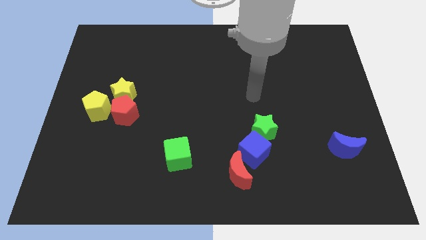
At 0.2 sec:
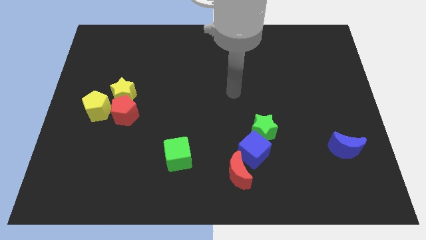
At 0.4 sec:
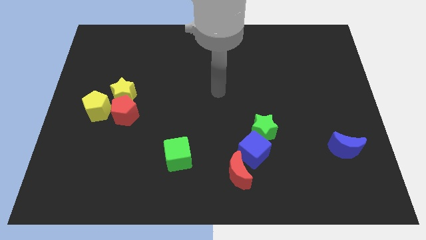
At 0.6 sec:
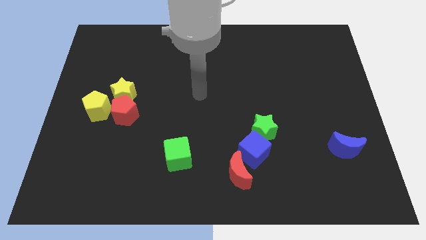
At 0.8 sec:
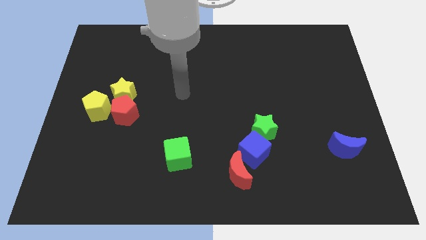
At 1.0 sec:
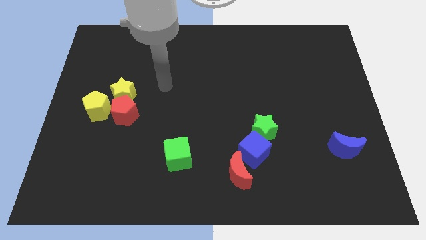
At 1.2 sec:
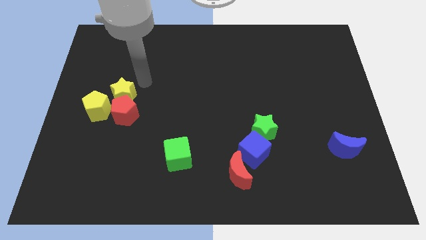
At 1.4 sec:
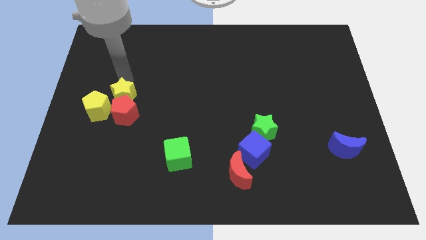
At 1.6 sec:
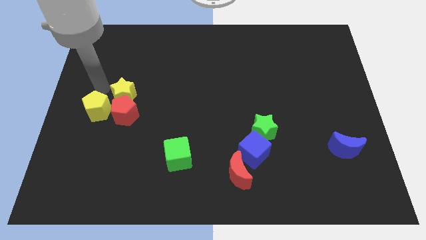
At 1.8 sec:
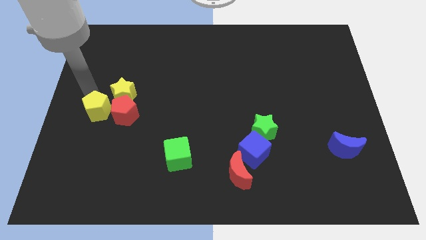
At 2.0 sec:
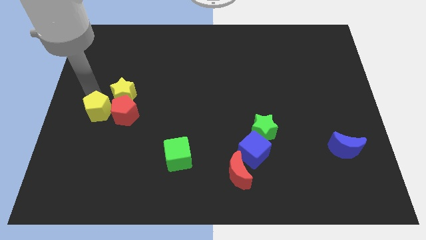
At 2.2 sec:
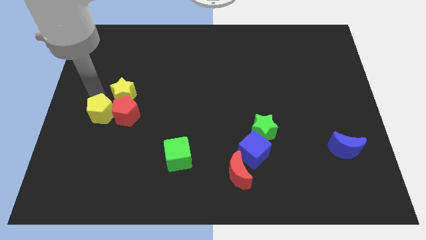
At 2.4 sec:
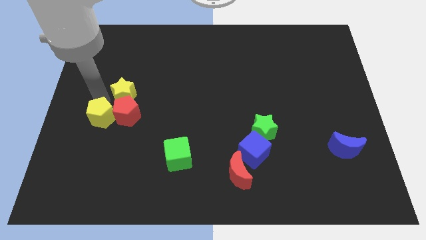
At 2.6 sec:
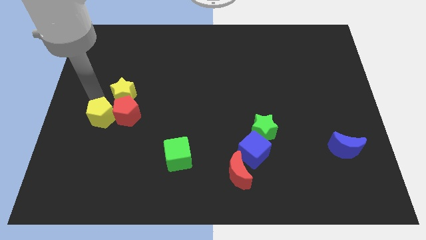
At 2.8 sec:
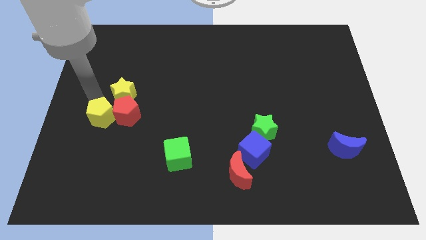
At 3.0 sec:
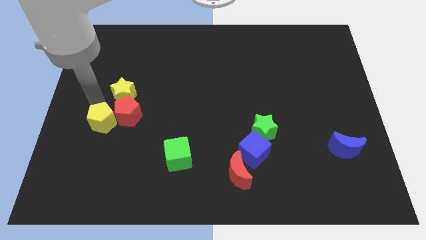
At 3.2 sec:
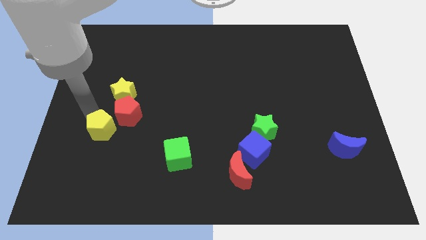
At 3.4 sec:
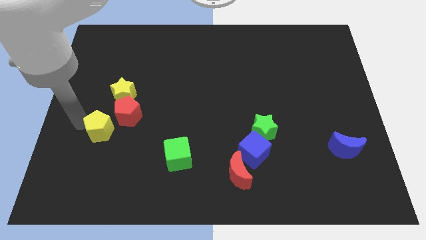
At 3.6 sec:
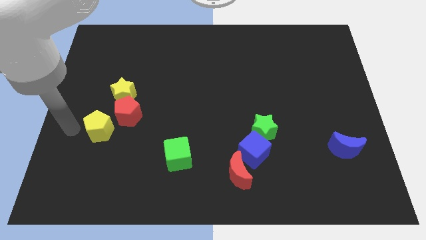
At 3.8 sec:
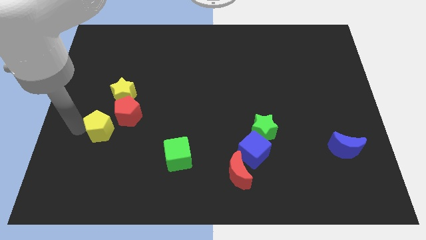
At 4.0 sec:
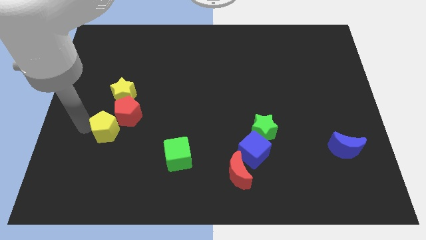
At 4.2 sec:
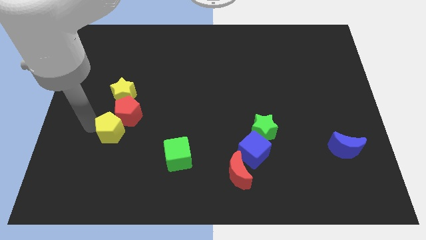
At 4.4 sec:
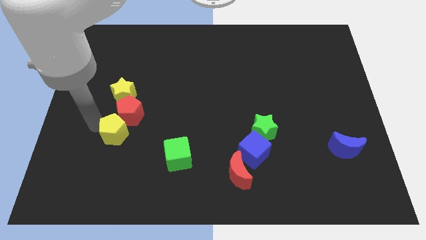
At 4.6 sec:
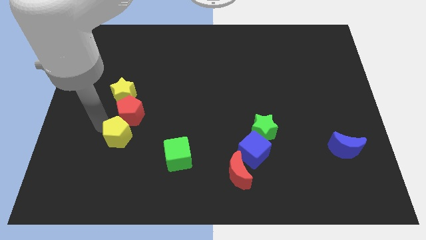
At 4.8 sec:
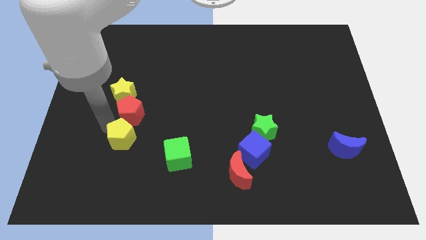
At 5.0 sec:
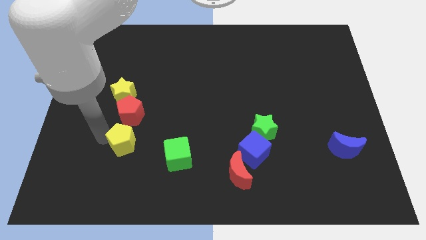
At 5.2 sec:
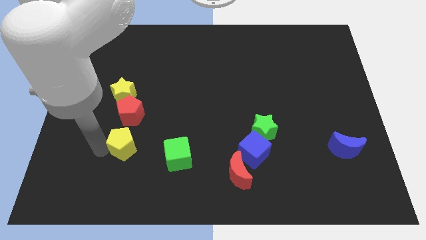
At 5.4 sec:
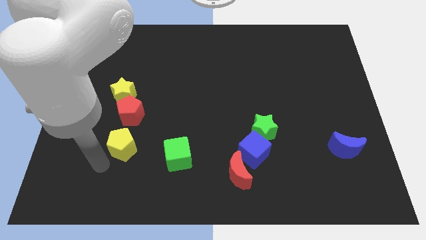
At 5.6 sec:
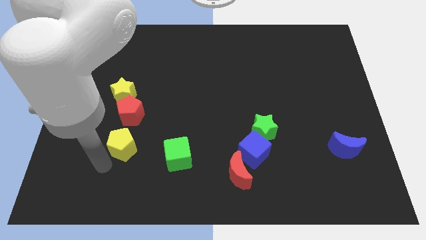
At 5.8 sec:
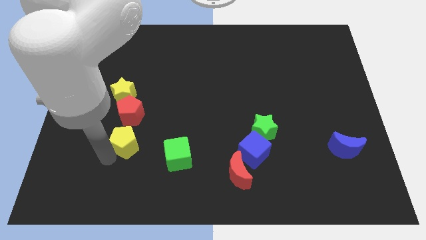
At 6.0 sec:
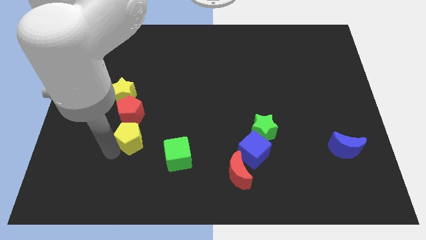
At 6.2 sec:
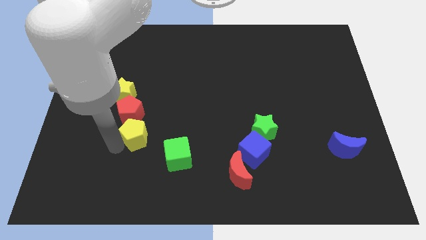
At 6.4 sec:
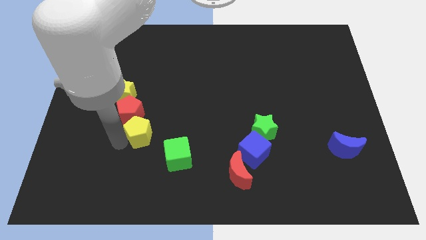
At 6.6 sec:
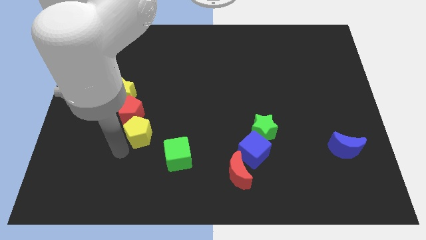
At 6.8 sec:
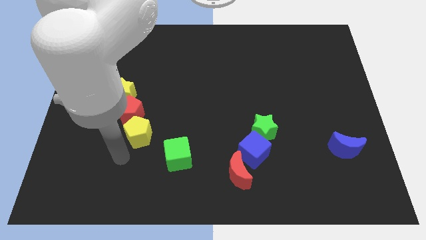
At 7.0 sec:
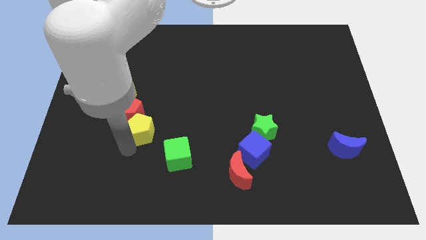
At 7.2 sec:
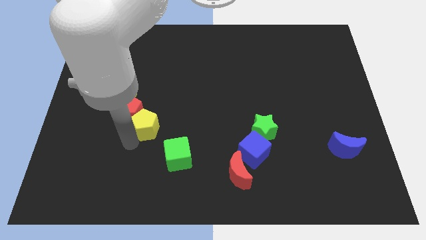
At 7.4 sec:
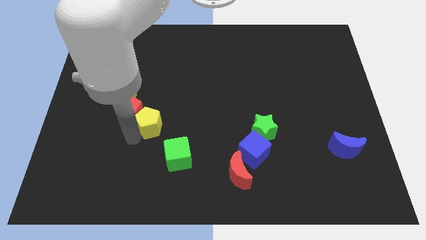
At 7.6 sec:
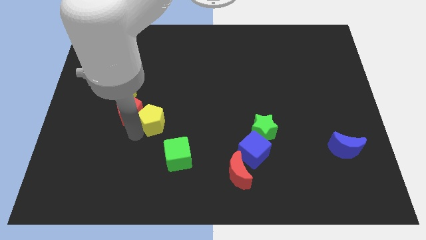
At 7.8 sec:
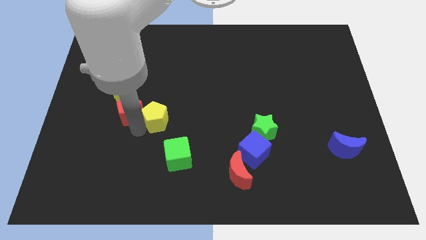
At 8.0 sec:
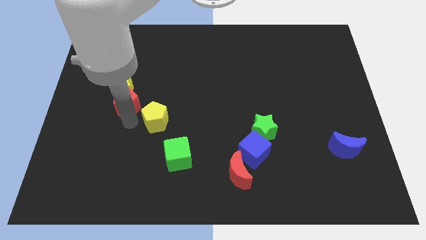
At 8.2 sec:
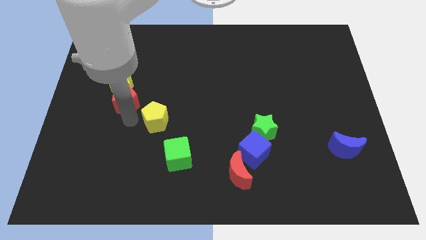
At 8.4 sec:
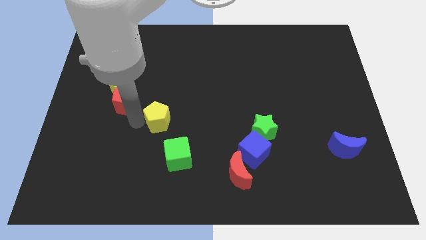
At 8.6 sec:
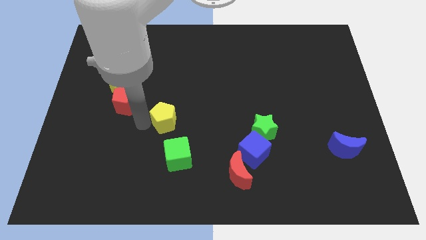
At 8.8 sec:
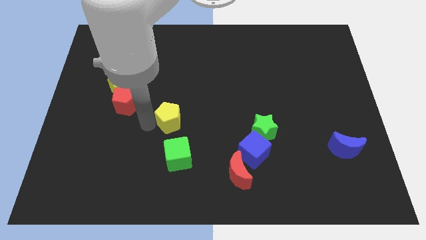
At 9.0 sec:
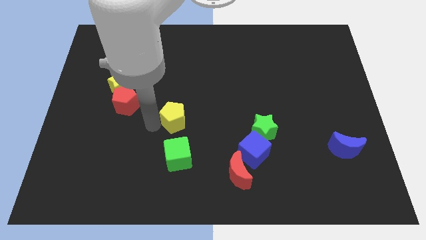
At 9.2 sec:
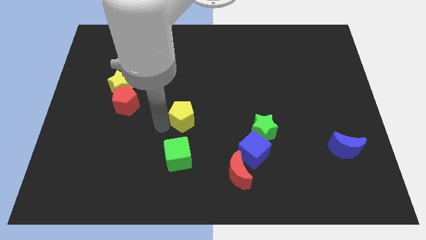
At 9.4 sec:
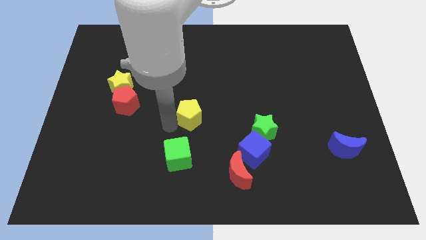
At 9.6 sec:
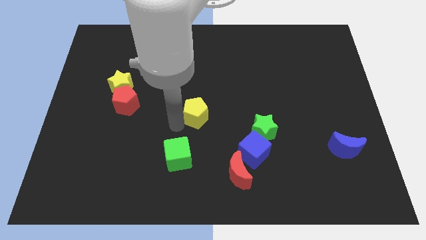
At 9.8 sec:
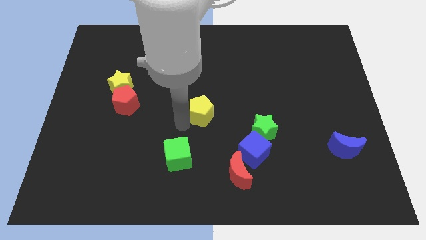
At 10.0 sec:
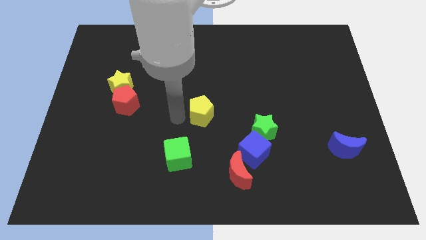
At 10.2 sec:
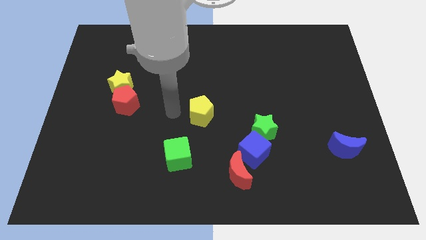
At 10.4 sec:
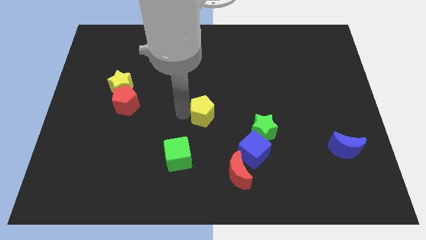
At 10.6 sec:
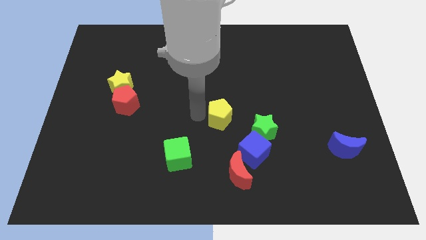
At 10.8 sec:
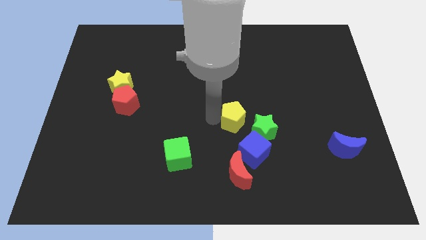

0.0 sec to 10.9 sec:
push the yellow pentagon to the top of the blue cube

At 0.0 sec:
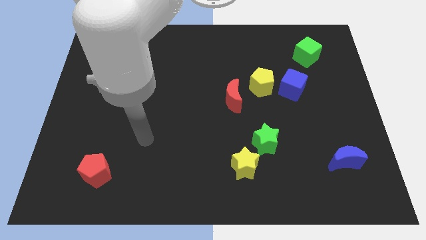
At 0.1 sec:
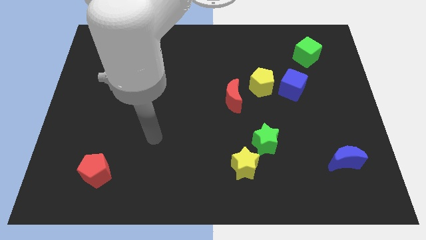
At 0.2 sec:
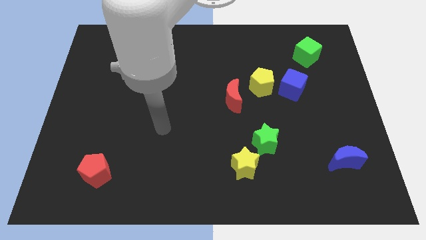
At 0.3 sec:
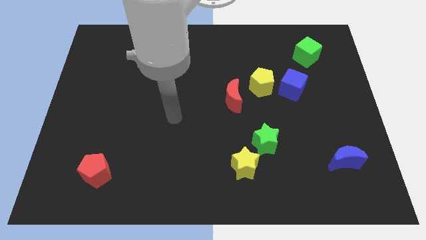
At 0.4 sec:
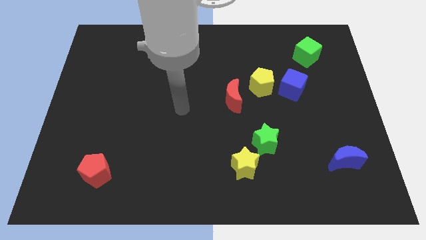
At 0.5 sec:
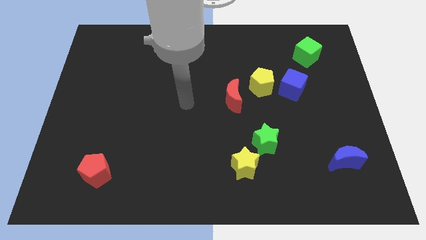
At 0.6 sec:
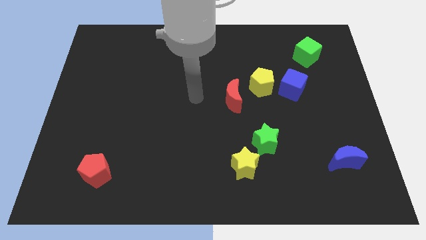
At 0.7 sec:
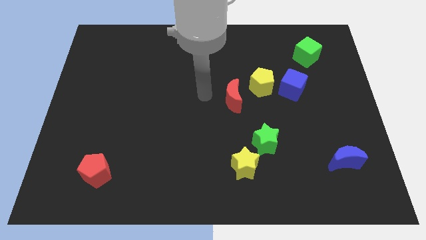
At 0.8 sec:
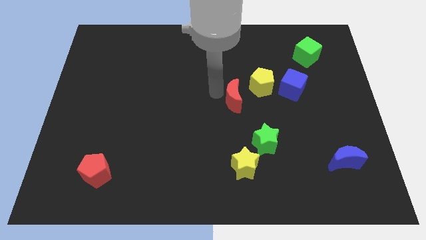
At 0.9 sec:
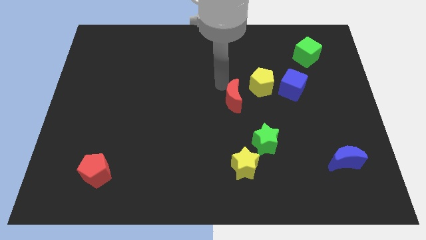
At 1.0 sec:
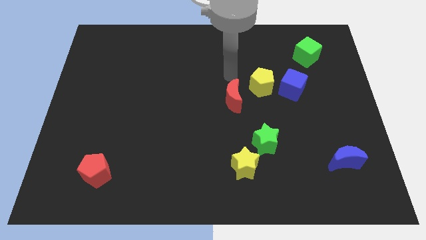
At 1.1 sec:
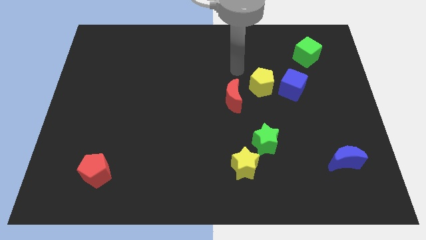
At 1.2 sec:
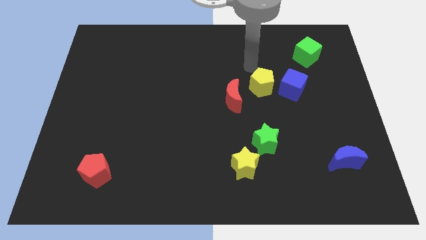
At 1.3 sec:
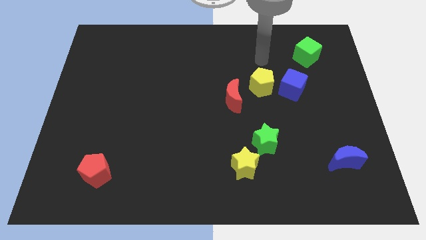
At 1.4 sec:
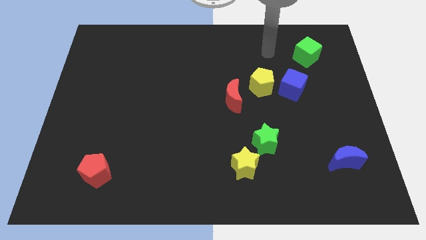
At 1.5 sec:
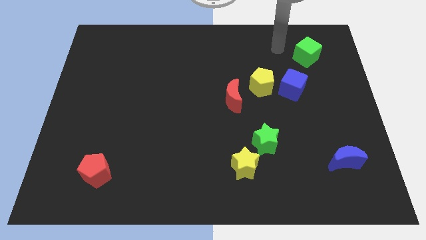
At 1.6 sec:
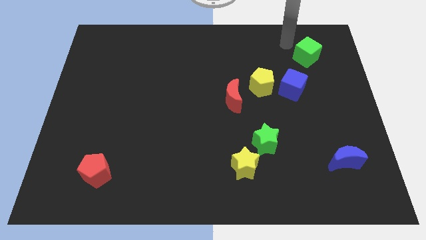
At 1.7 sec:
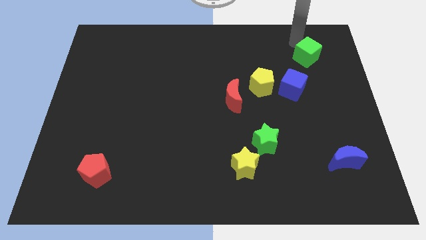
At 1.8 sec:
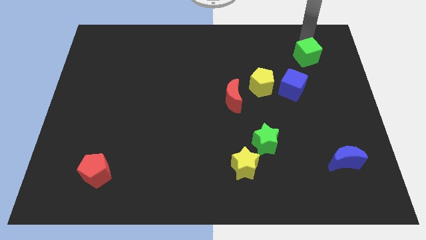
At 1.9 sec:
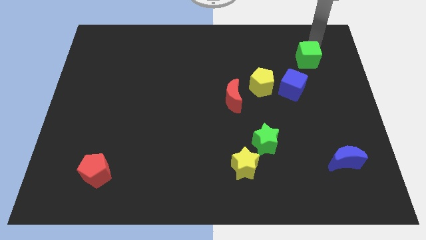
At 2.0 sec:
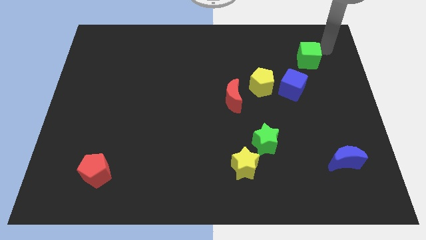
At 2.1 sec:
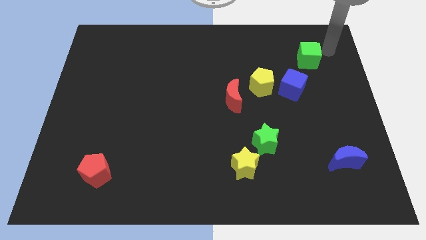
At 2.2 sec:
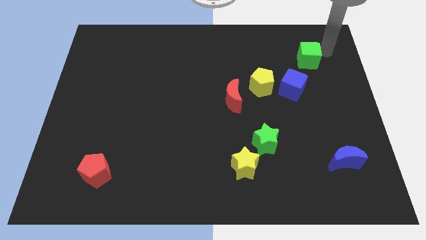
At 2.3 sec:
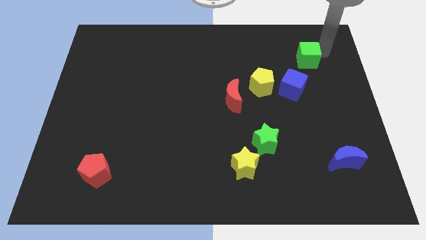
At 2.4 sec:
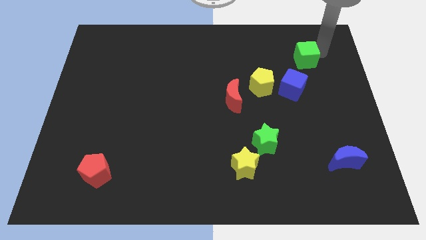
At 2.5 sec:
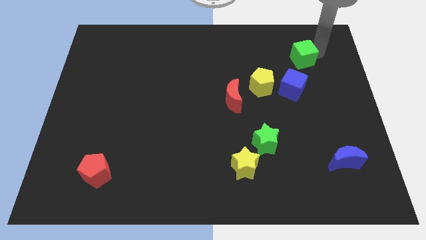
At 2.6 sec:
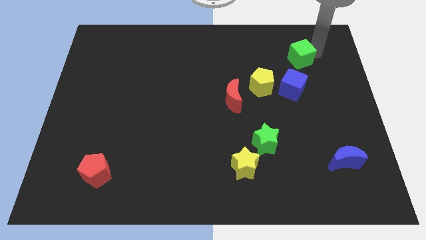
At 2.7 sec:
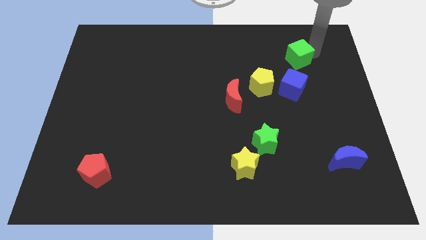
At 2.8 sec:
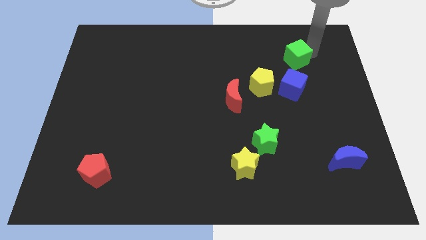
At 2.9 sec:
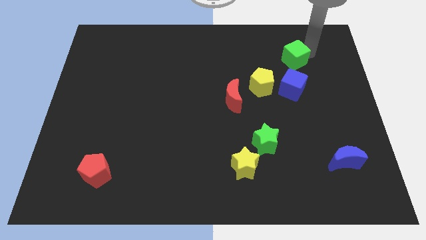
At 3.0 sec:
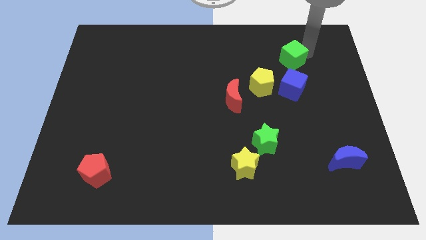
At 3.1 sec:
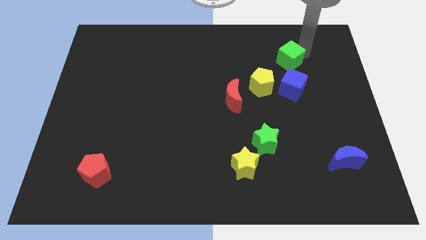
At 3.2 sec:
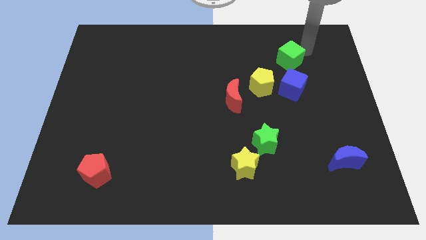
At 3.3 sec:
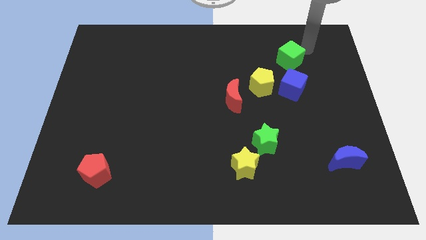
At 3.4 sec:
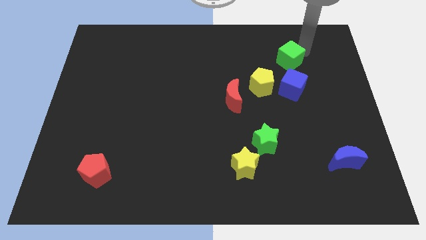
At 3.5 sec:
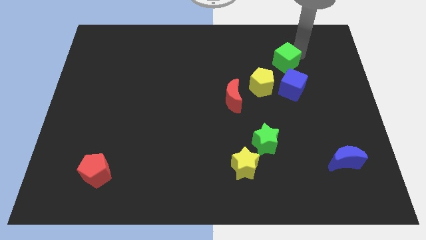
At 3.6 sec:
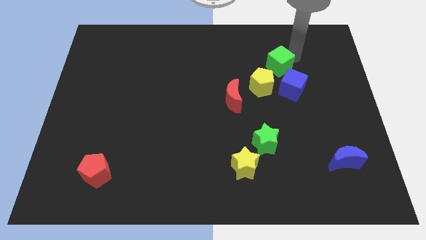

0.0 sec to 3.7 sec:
put the green cube to the top left of the blue cube
